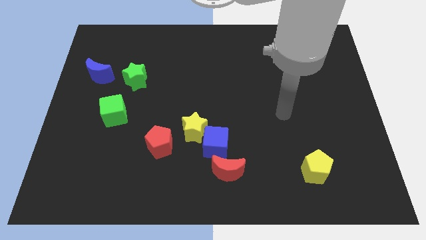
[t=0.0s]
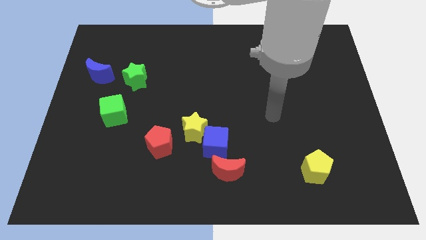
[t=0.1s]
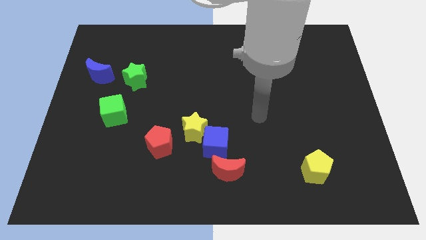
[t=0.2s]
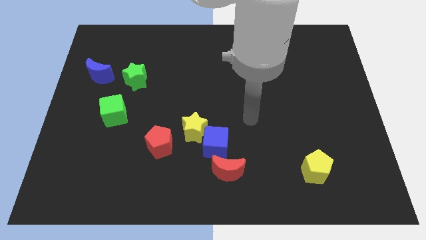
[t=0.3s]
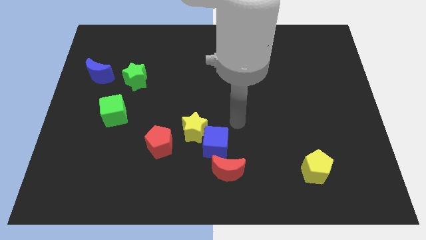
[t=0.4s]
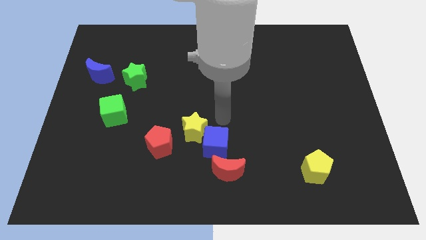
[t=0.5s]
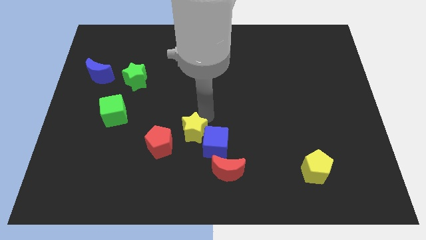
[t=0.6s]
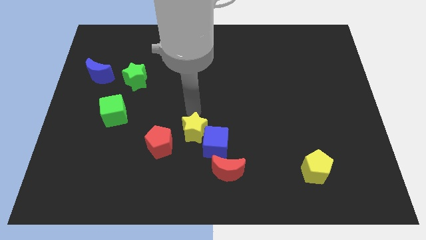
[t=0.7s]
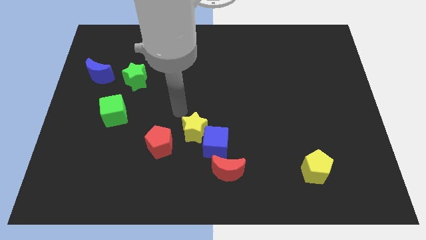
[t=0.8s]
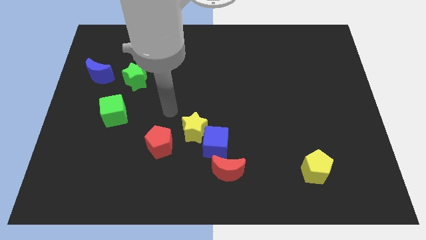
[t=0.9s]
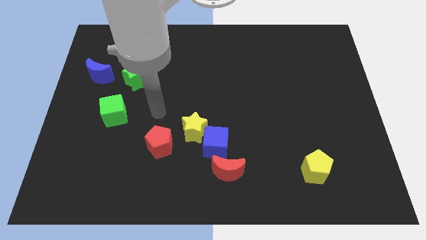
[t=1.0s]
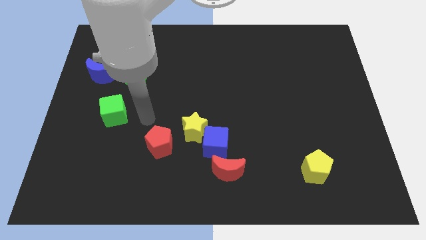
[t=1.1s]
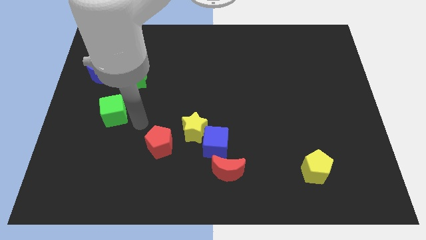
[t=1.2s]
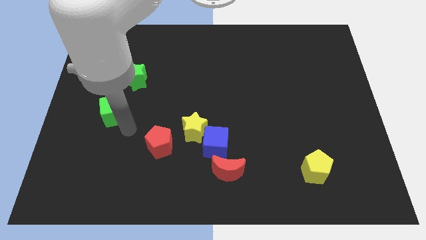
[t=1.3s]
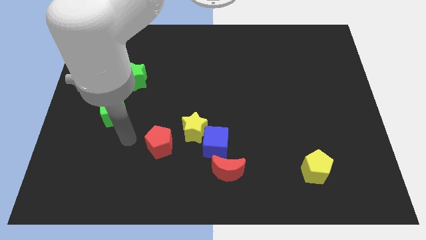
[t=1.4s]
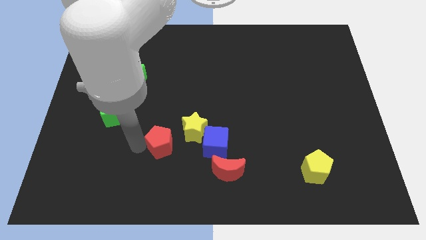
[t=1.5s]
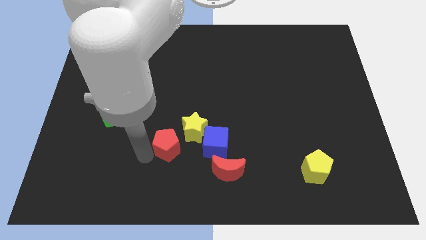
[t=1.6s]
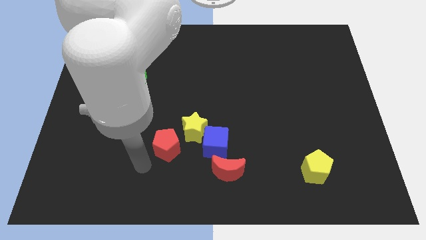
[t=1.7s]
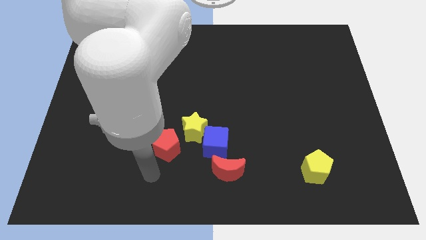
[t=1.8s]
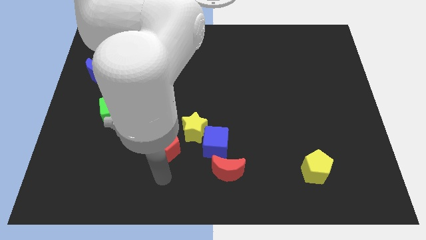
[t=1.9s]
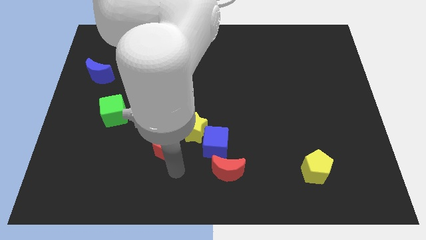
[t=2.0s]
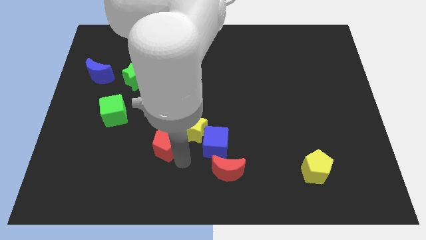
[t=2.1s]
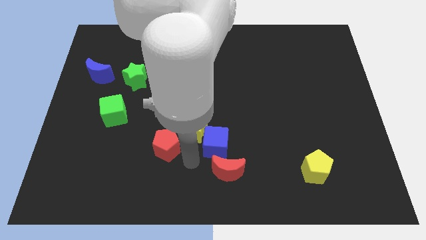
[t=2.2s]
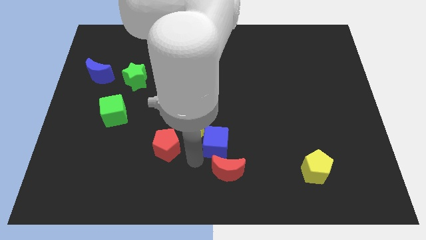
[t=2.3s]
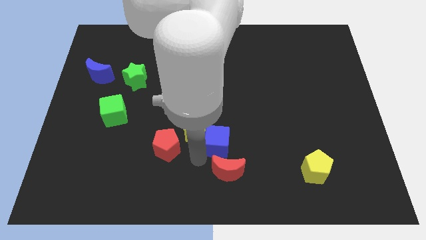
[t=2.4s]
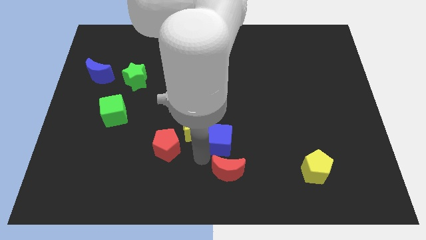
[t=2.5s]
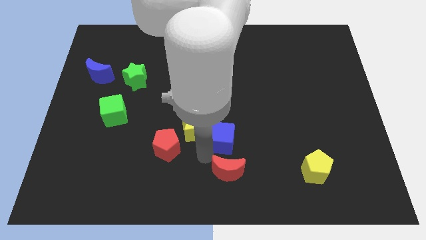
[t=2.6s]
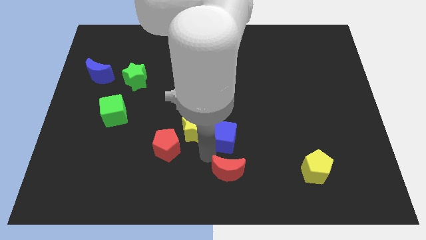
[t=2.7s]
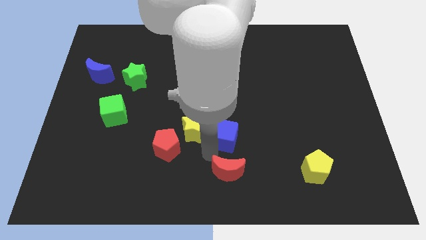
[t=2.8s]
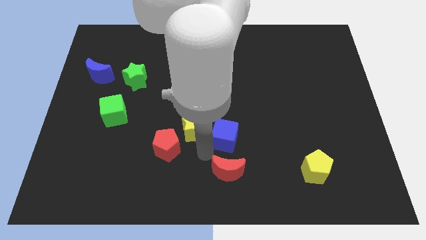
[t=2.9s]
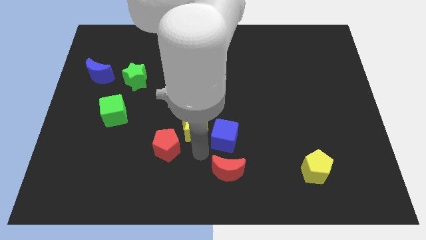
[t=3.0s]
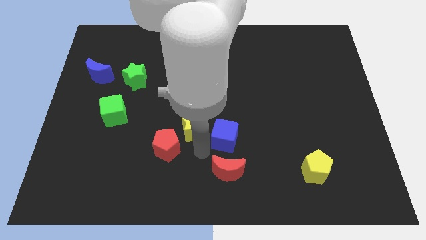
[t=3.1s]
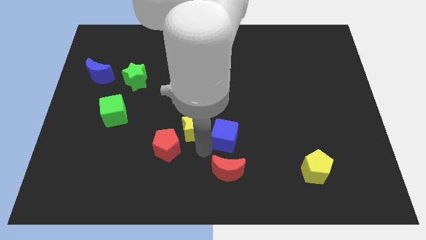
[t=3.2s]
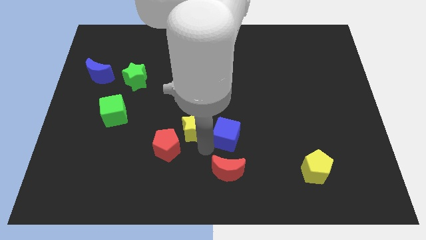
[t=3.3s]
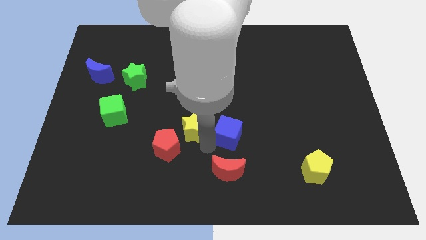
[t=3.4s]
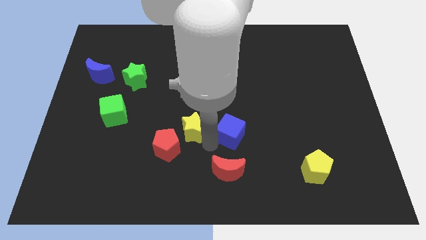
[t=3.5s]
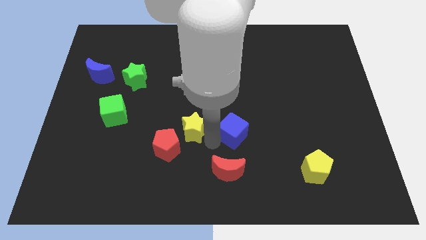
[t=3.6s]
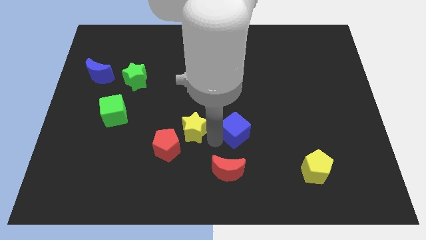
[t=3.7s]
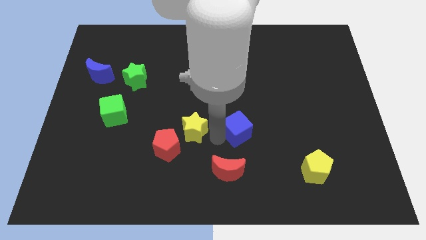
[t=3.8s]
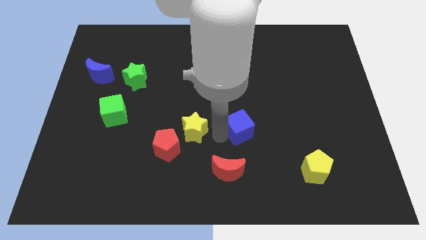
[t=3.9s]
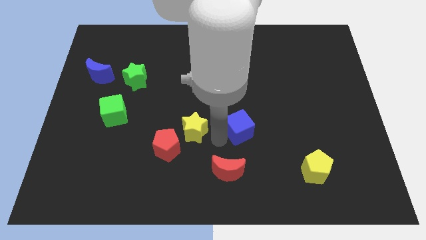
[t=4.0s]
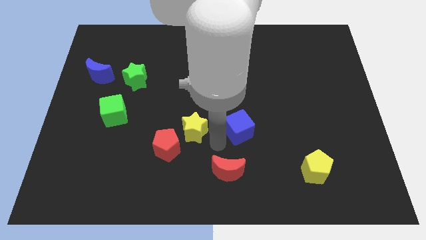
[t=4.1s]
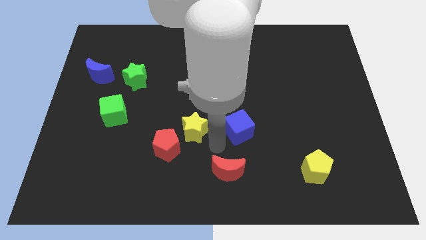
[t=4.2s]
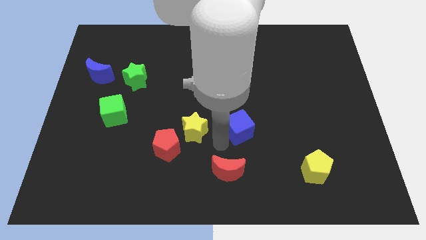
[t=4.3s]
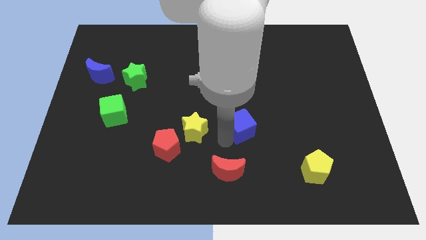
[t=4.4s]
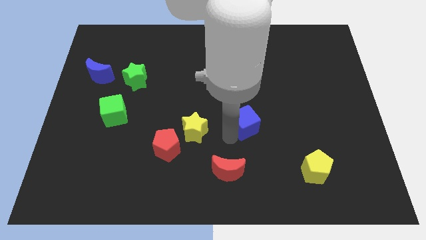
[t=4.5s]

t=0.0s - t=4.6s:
separate the blue cube from the yellow star and red moon

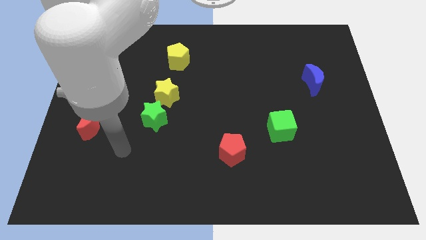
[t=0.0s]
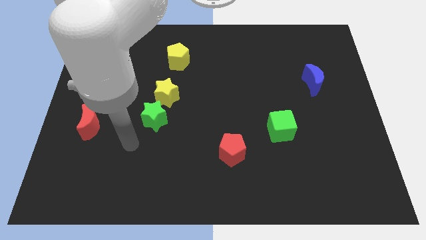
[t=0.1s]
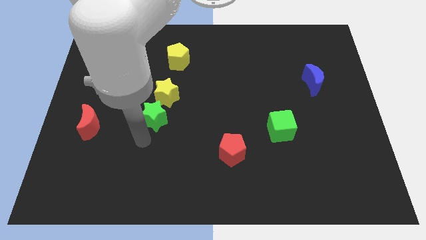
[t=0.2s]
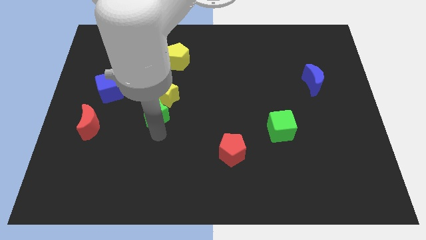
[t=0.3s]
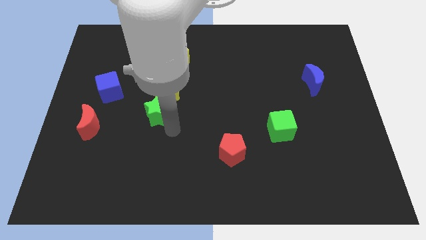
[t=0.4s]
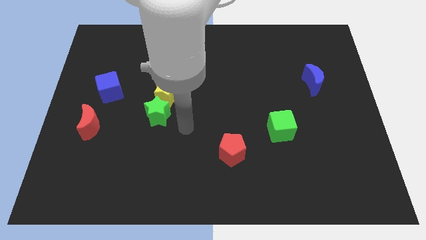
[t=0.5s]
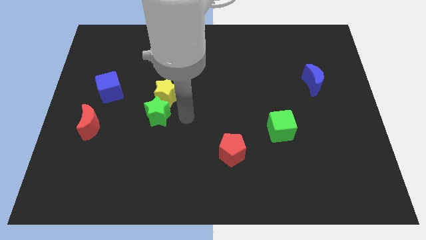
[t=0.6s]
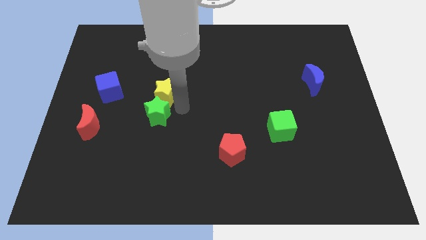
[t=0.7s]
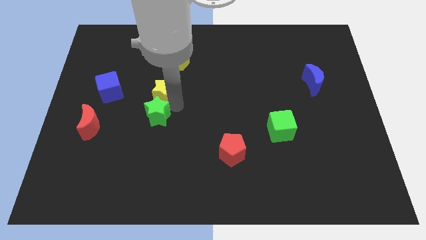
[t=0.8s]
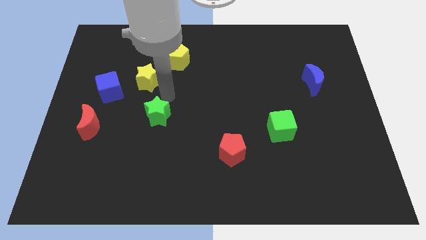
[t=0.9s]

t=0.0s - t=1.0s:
pull the green star apart from the yellow star

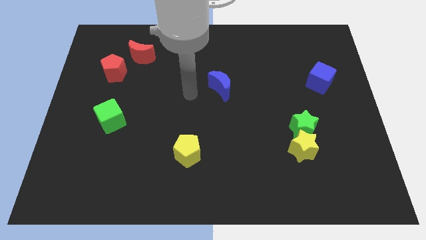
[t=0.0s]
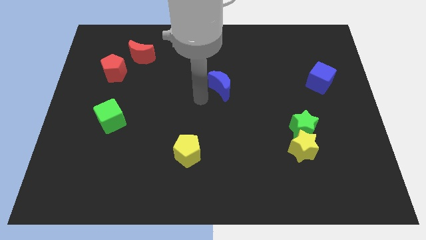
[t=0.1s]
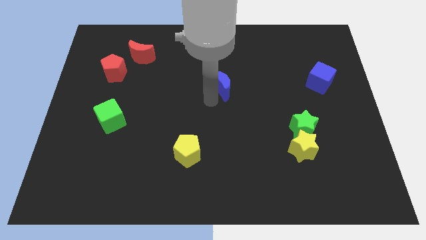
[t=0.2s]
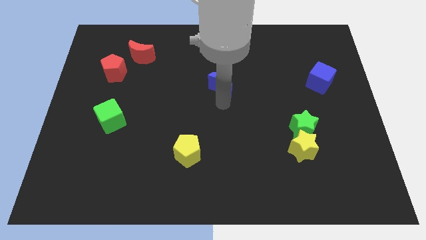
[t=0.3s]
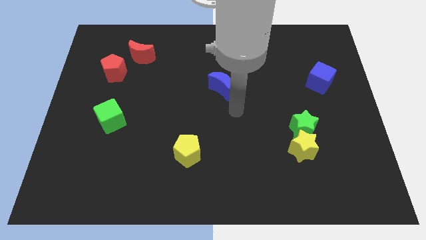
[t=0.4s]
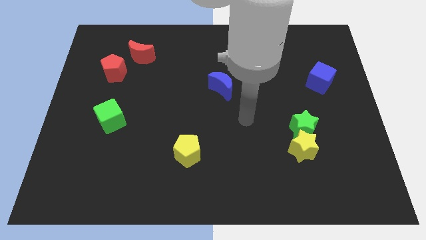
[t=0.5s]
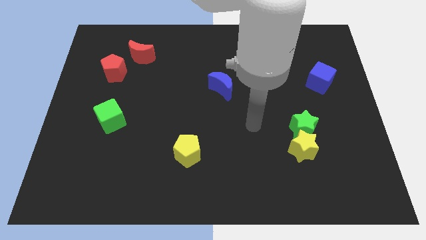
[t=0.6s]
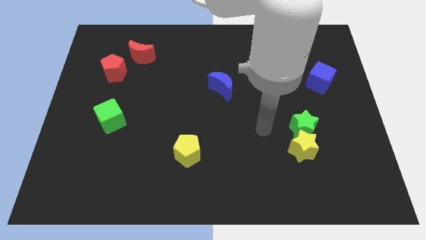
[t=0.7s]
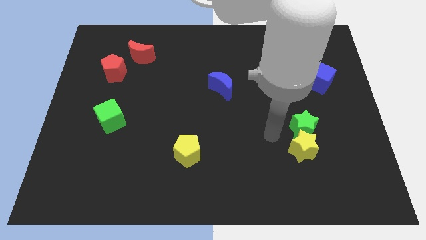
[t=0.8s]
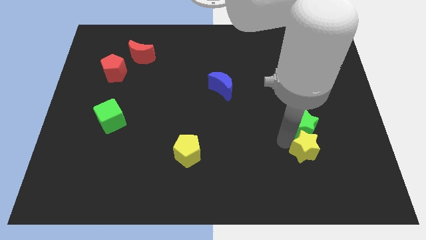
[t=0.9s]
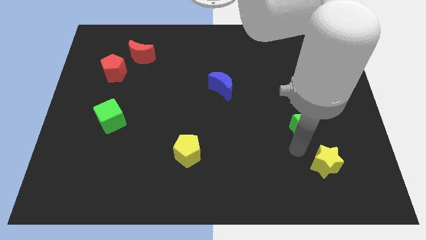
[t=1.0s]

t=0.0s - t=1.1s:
move the green star away from the yellow star

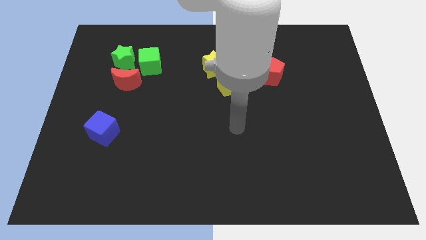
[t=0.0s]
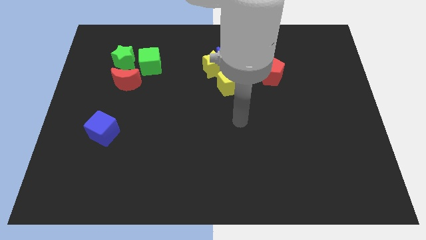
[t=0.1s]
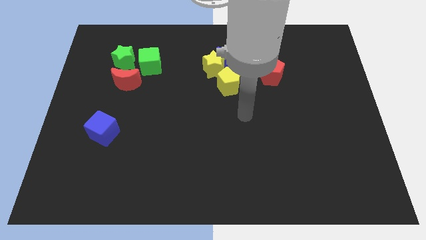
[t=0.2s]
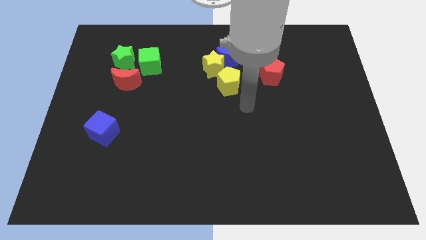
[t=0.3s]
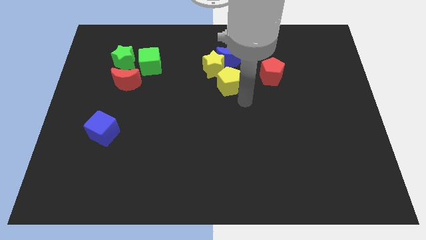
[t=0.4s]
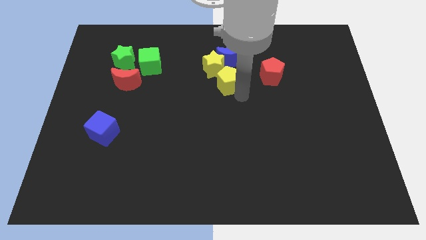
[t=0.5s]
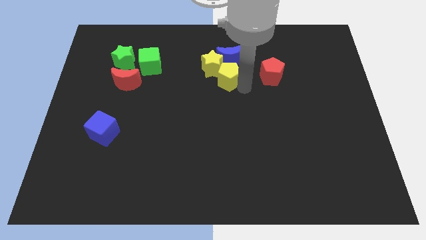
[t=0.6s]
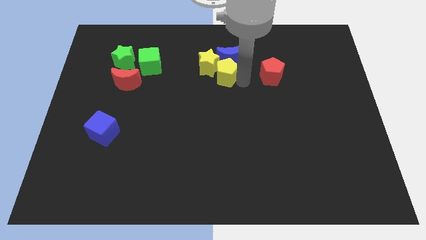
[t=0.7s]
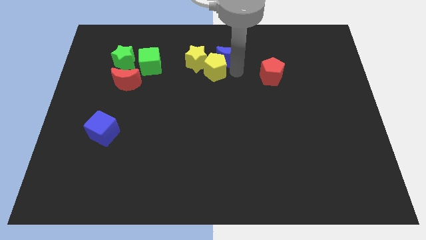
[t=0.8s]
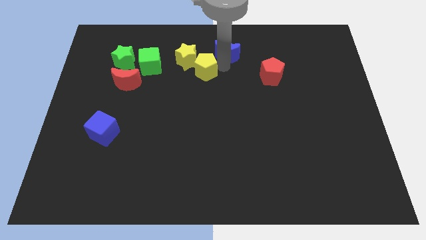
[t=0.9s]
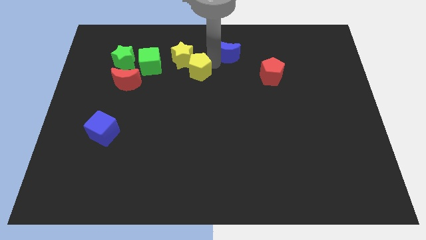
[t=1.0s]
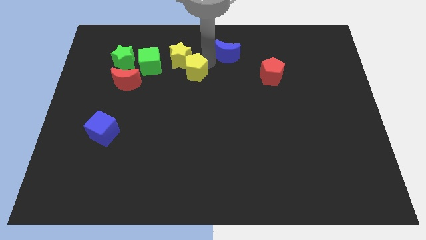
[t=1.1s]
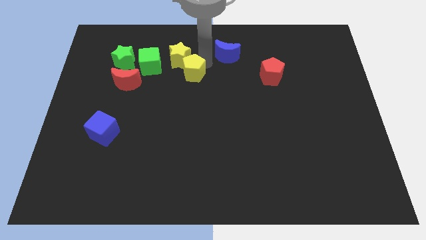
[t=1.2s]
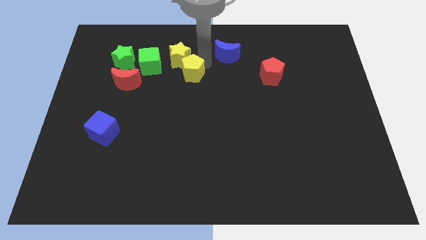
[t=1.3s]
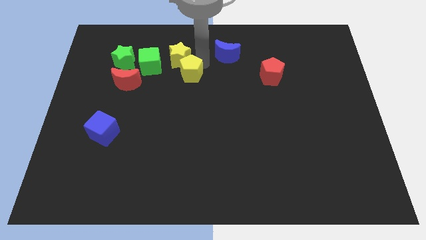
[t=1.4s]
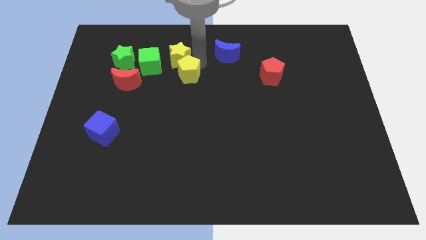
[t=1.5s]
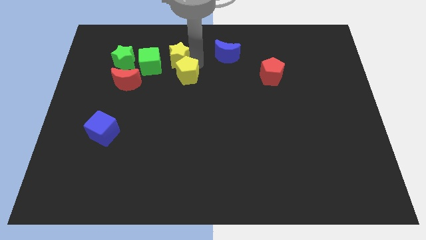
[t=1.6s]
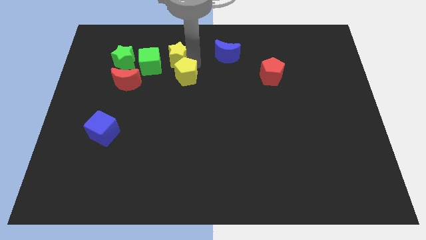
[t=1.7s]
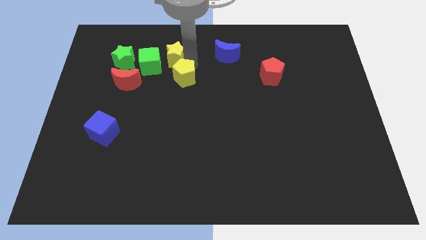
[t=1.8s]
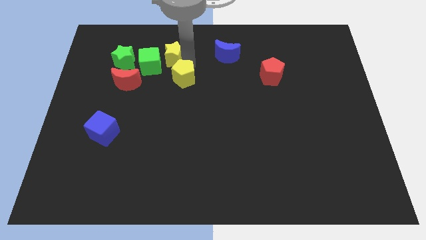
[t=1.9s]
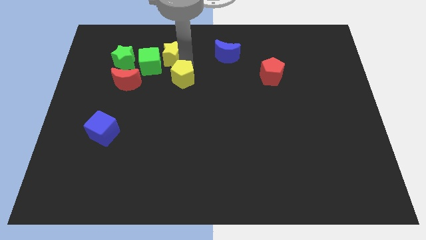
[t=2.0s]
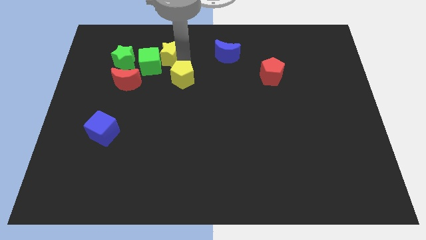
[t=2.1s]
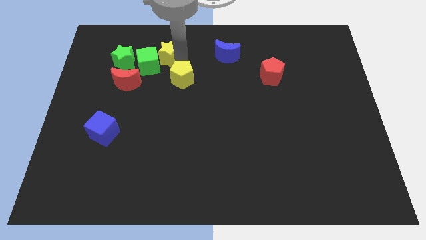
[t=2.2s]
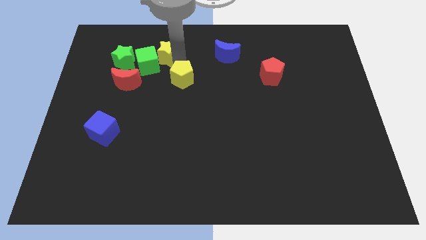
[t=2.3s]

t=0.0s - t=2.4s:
separate the yellow star from the blue moon and yellow pentagon

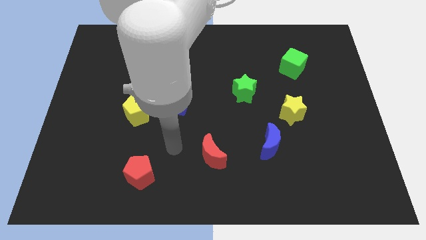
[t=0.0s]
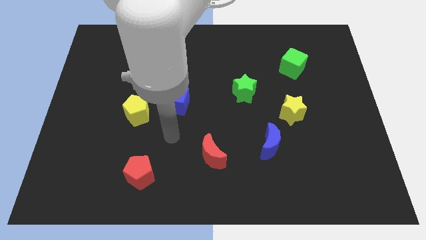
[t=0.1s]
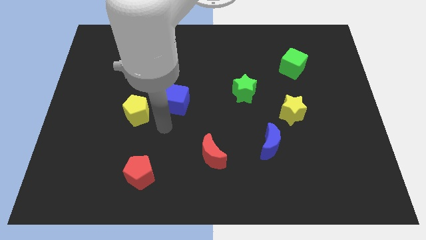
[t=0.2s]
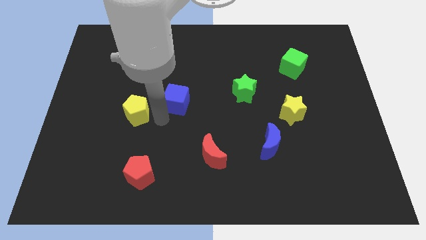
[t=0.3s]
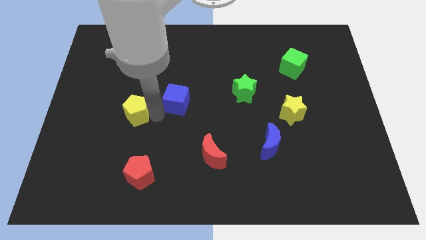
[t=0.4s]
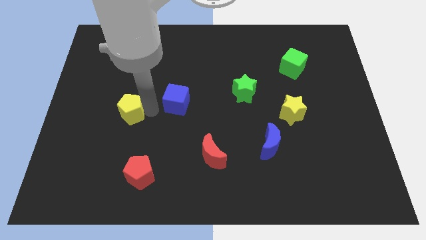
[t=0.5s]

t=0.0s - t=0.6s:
separate the blue cube from the yellow pentagon
